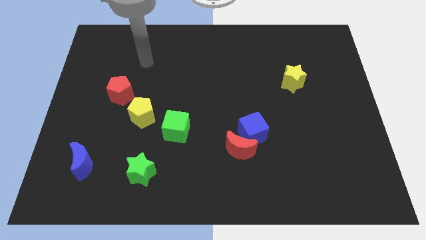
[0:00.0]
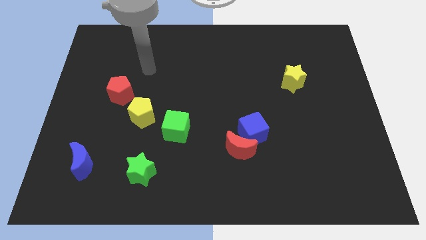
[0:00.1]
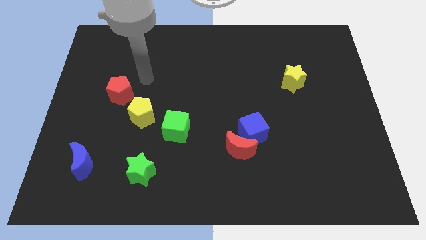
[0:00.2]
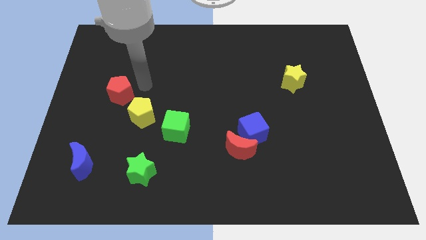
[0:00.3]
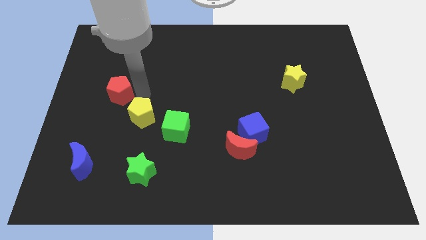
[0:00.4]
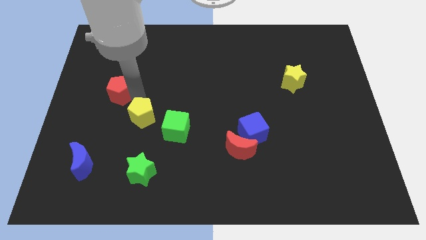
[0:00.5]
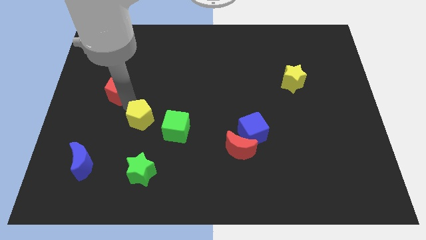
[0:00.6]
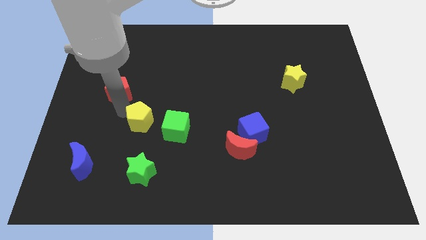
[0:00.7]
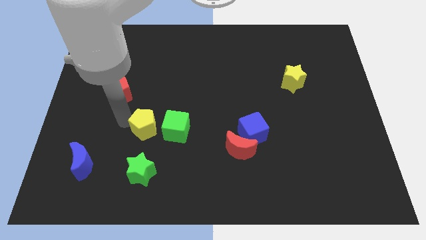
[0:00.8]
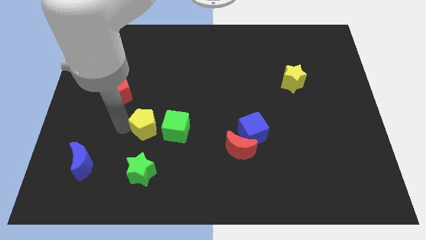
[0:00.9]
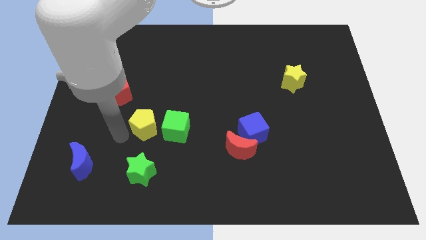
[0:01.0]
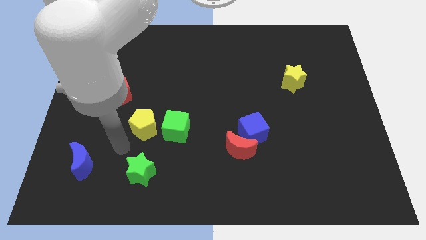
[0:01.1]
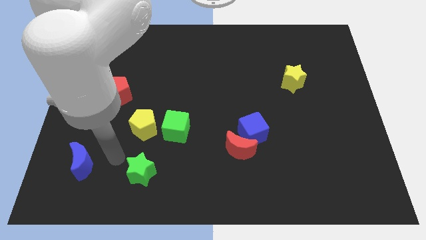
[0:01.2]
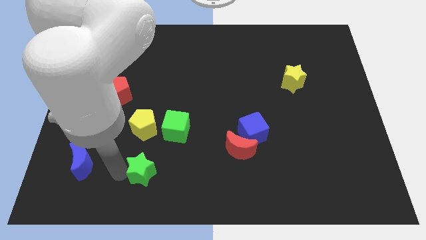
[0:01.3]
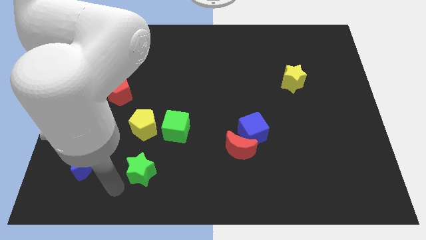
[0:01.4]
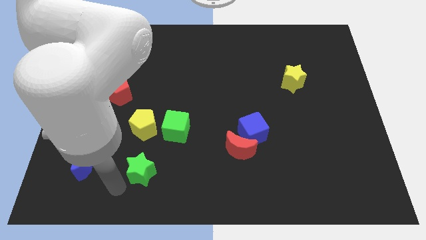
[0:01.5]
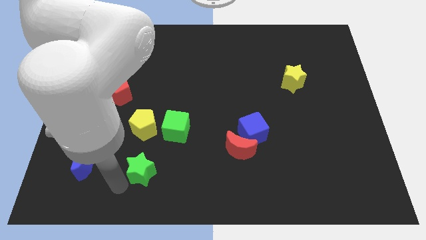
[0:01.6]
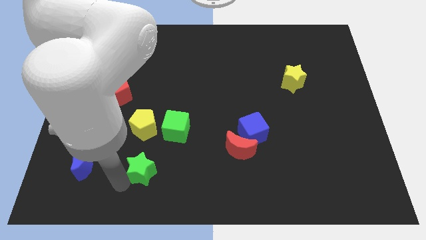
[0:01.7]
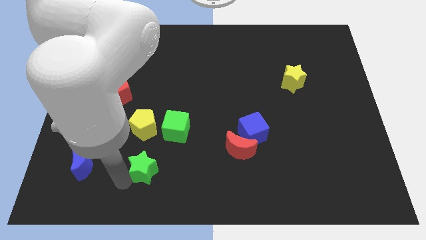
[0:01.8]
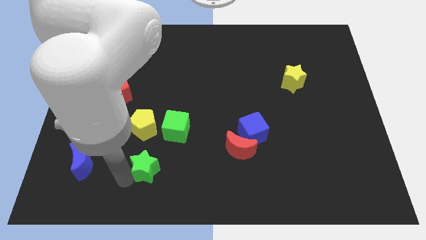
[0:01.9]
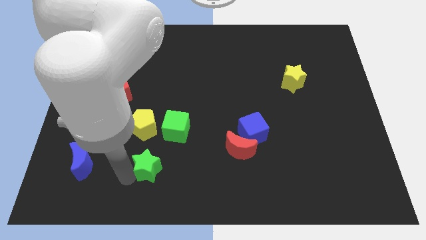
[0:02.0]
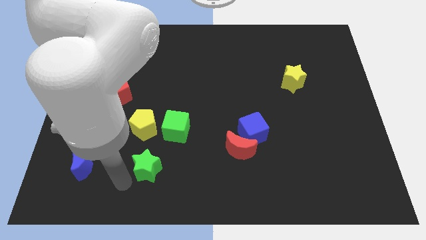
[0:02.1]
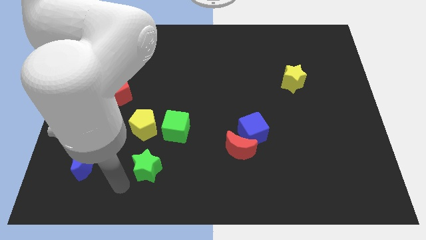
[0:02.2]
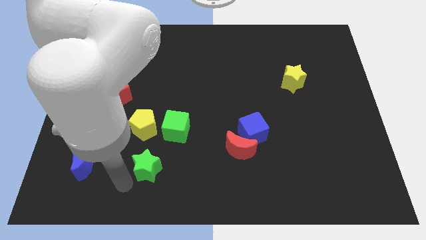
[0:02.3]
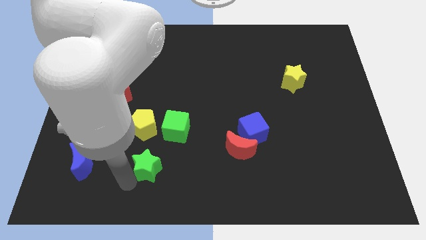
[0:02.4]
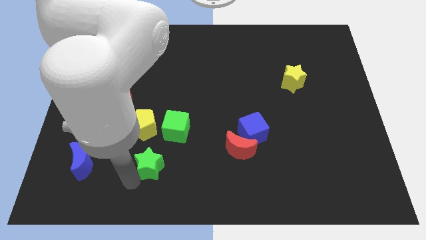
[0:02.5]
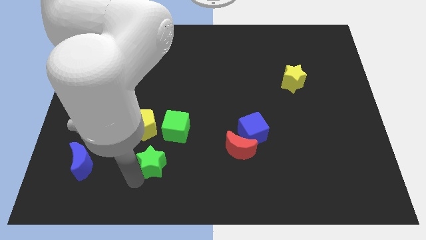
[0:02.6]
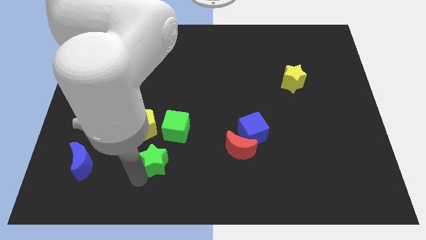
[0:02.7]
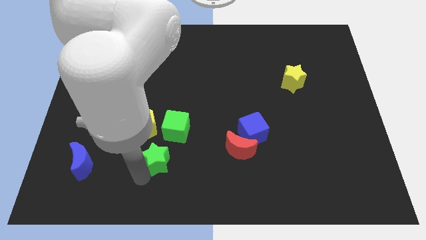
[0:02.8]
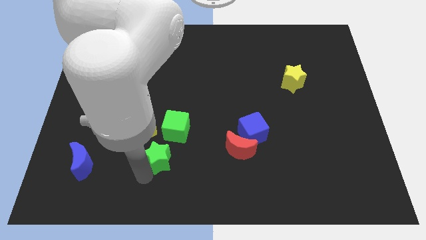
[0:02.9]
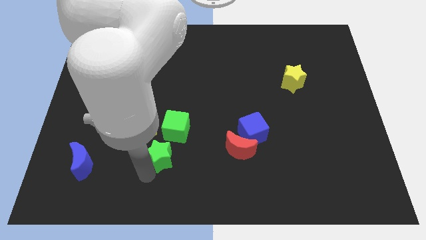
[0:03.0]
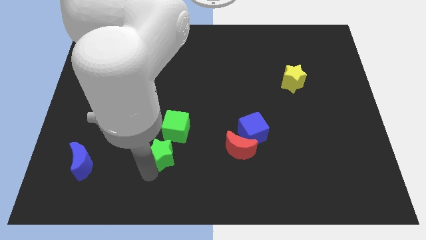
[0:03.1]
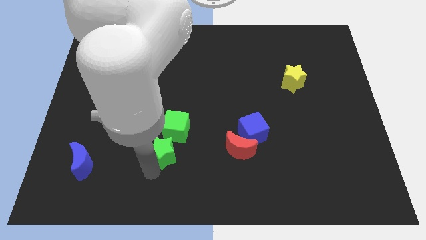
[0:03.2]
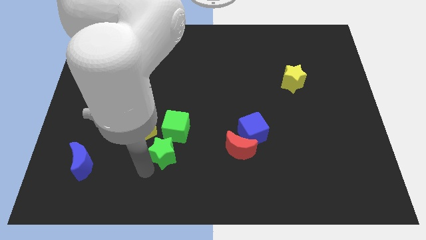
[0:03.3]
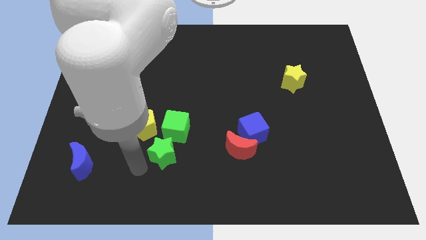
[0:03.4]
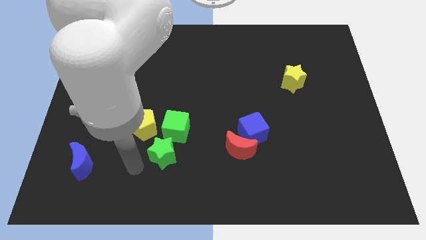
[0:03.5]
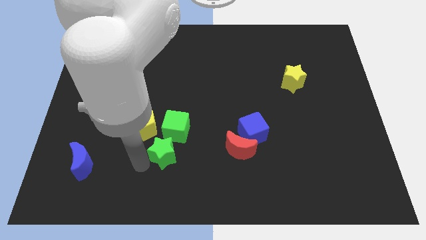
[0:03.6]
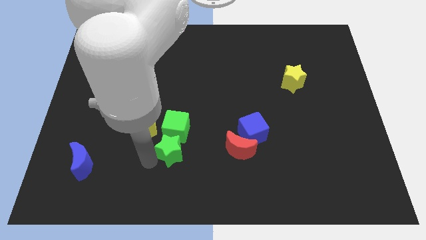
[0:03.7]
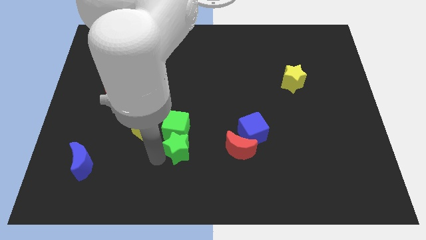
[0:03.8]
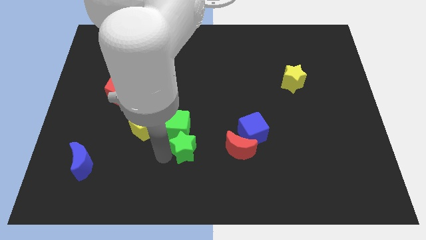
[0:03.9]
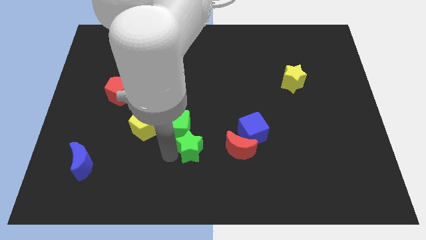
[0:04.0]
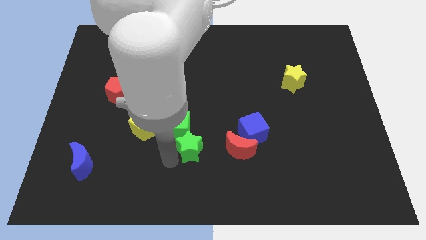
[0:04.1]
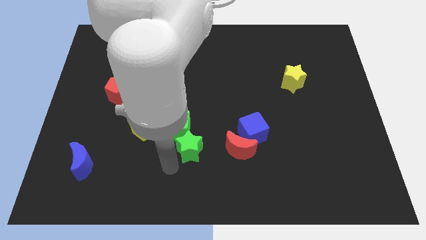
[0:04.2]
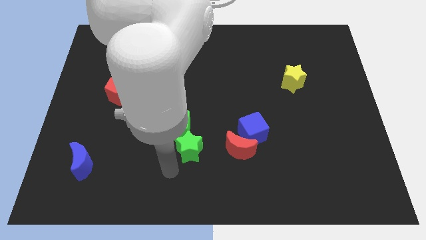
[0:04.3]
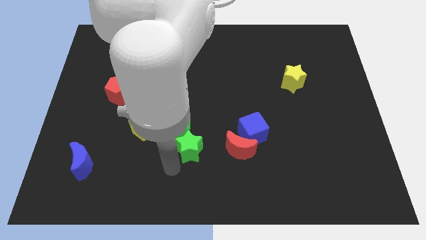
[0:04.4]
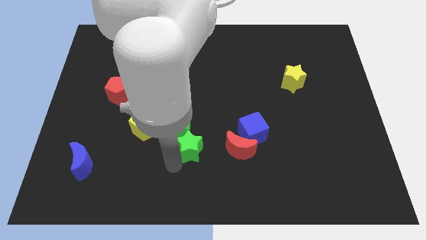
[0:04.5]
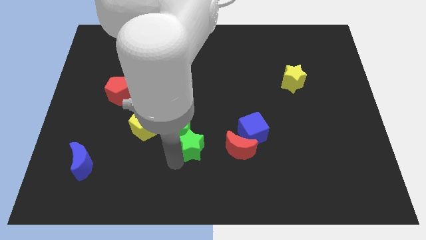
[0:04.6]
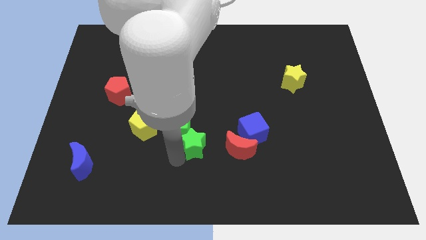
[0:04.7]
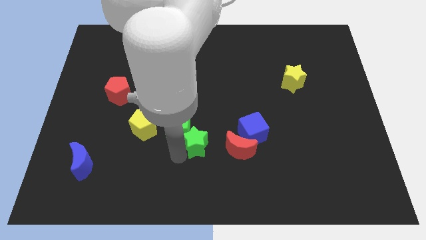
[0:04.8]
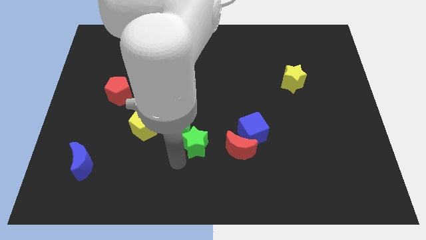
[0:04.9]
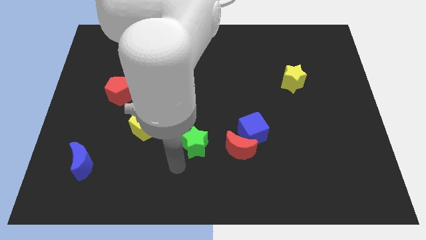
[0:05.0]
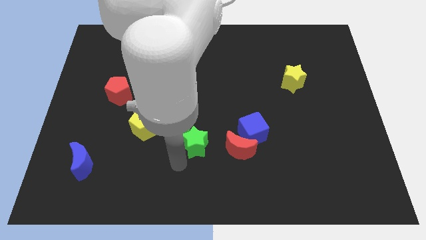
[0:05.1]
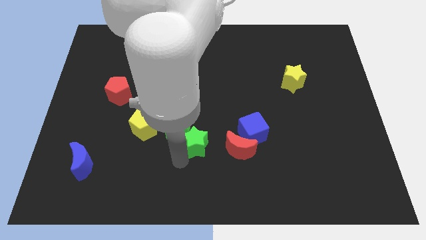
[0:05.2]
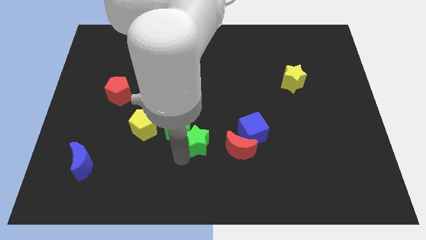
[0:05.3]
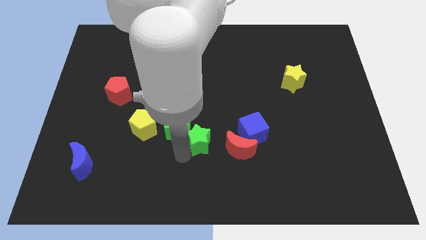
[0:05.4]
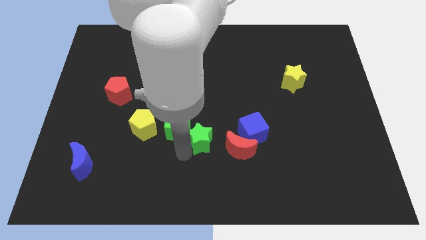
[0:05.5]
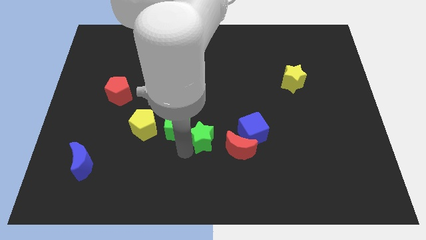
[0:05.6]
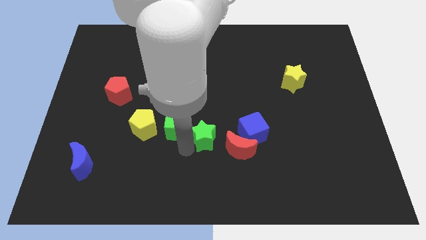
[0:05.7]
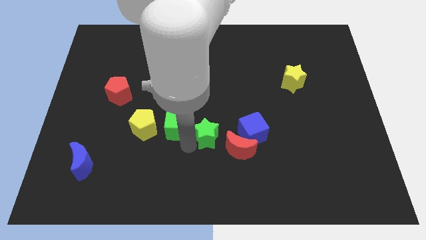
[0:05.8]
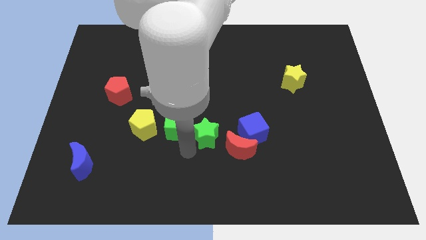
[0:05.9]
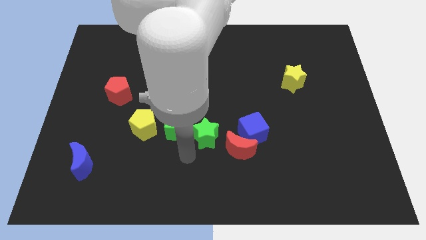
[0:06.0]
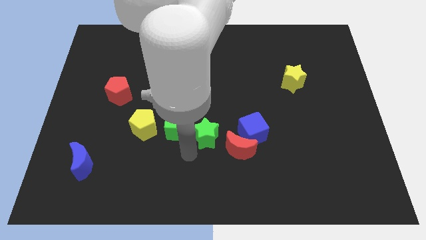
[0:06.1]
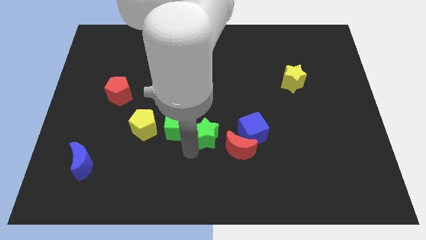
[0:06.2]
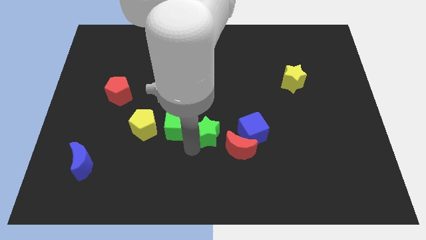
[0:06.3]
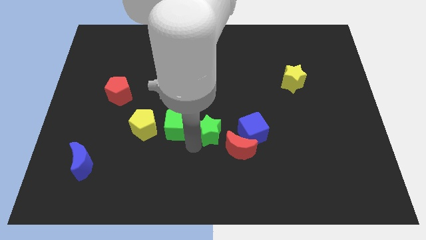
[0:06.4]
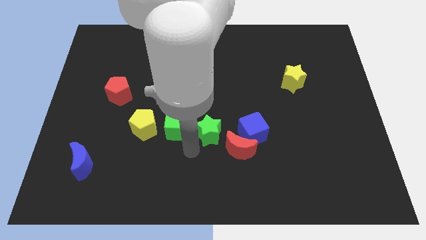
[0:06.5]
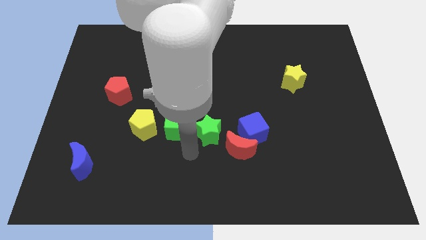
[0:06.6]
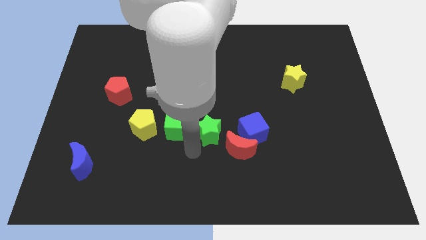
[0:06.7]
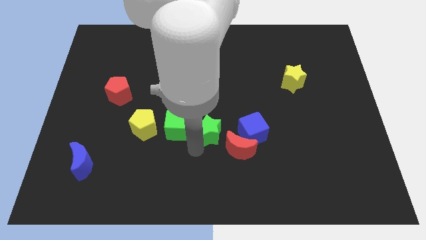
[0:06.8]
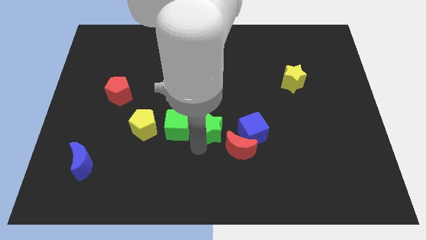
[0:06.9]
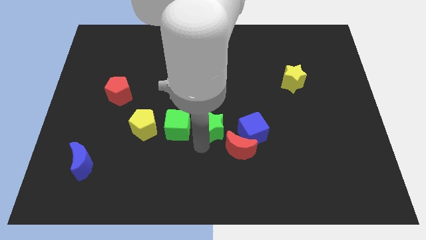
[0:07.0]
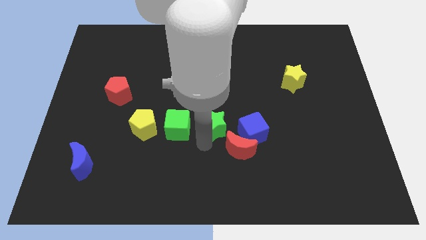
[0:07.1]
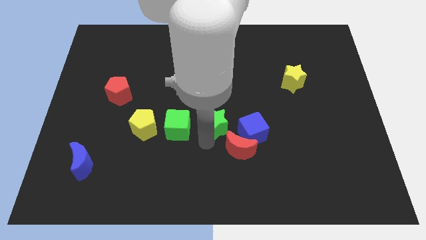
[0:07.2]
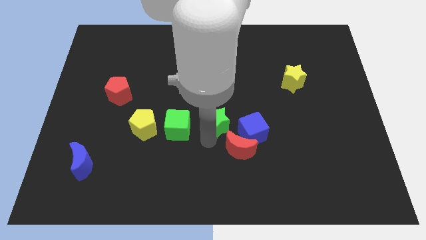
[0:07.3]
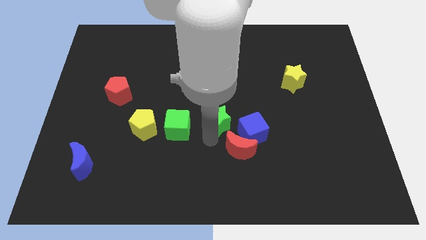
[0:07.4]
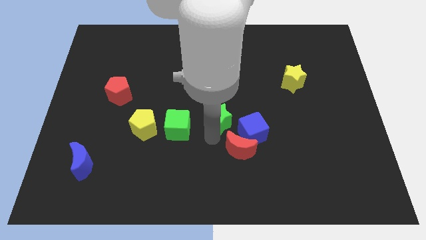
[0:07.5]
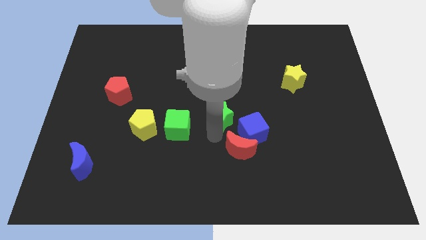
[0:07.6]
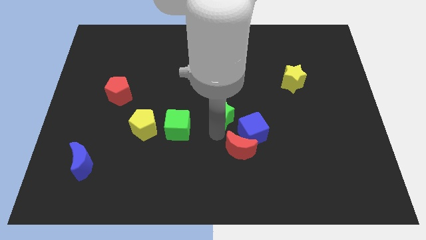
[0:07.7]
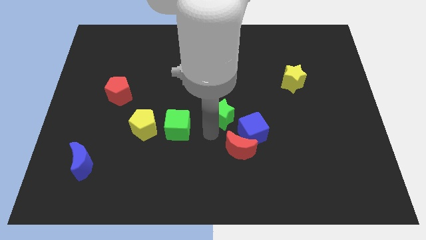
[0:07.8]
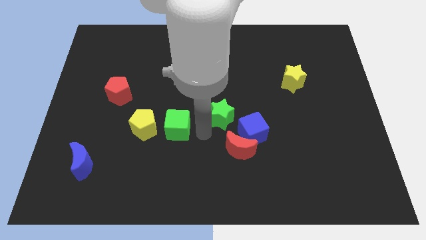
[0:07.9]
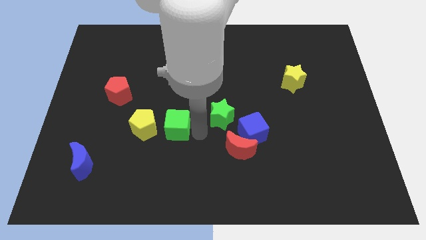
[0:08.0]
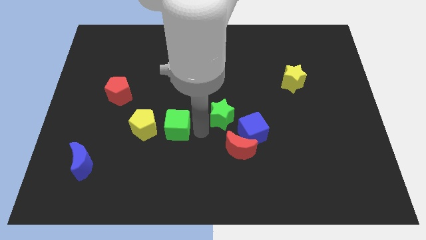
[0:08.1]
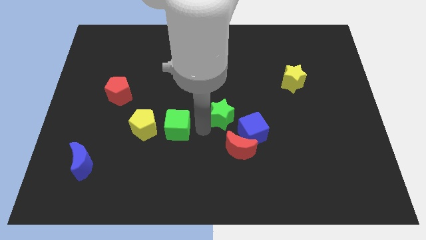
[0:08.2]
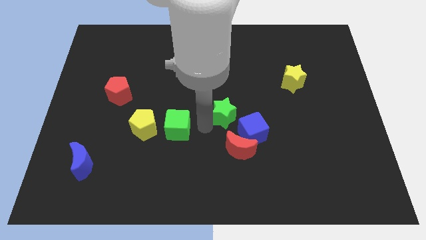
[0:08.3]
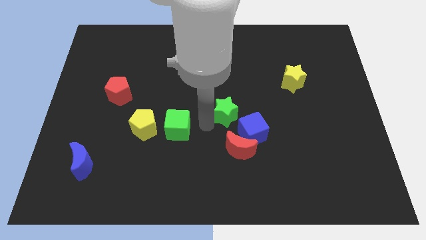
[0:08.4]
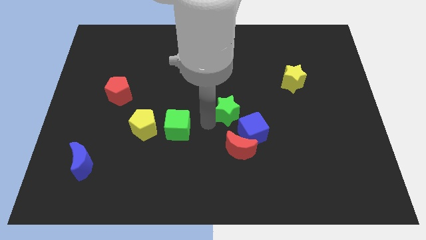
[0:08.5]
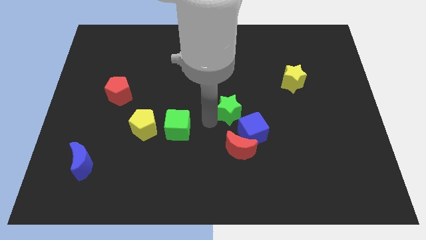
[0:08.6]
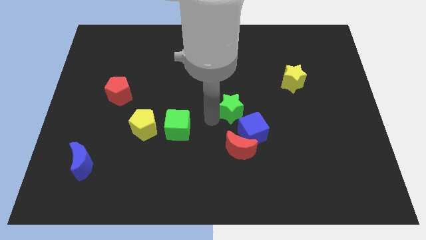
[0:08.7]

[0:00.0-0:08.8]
put the green star to the top of the blue cube
